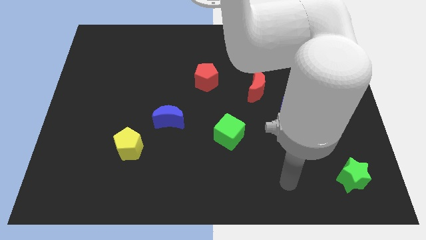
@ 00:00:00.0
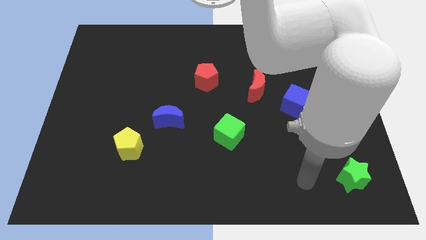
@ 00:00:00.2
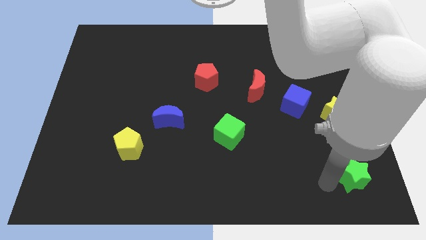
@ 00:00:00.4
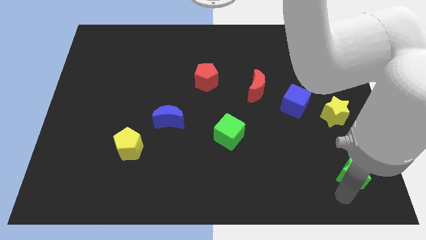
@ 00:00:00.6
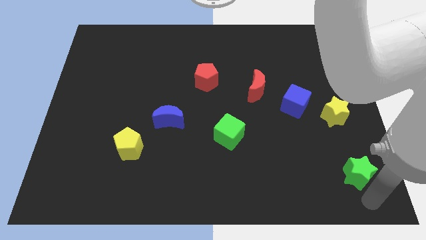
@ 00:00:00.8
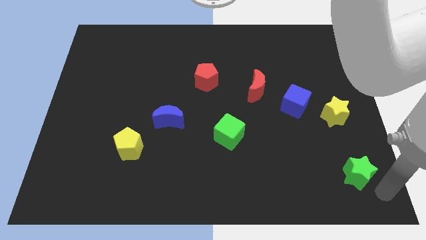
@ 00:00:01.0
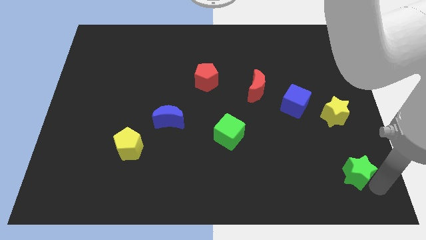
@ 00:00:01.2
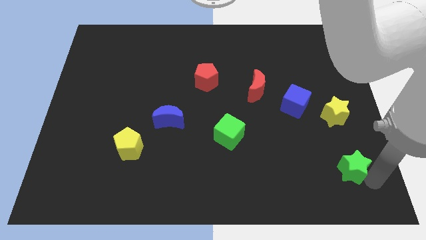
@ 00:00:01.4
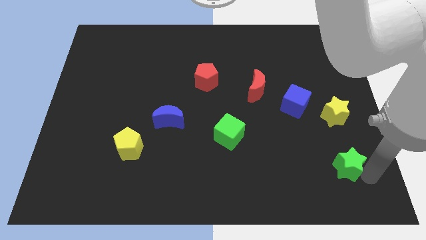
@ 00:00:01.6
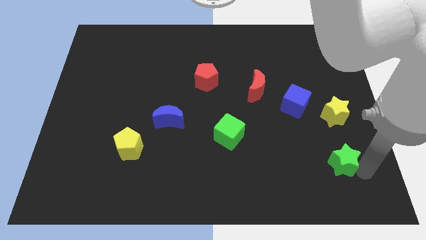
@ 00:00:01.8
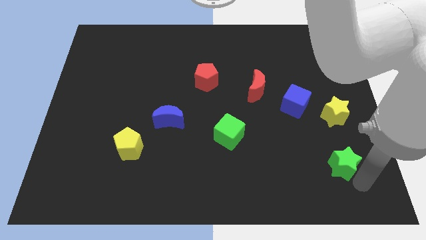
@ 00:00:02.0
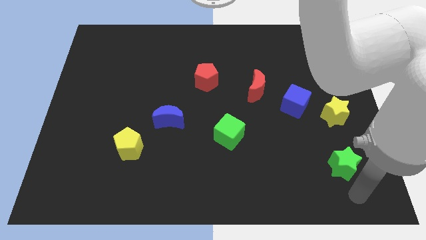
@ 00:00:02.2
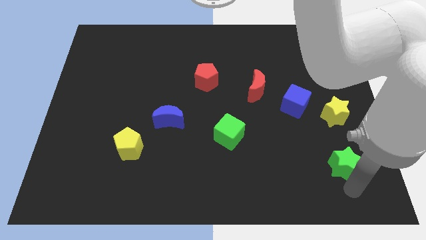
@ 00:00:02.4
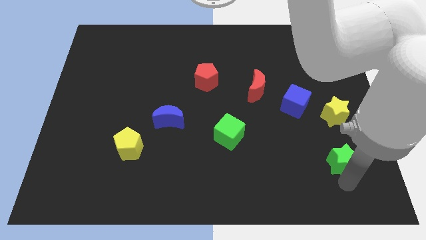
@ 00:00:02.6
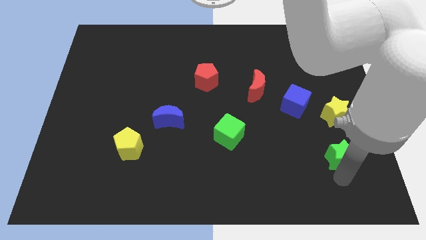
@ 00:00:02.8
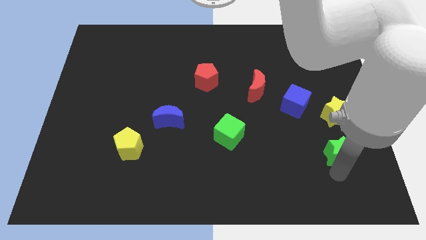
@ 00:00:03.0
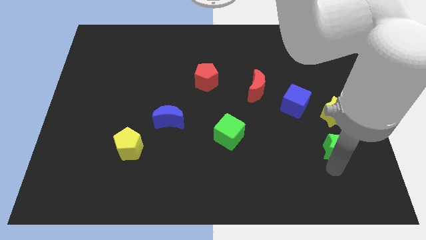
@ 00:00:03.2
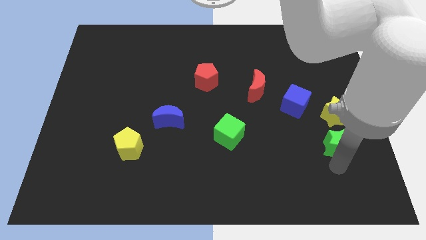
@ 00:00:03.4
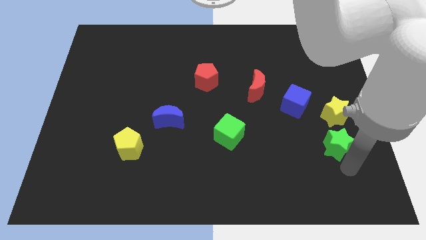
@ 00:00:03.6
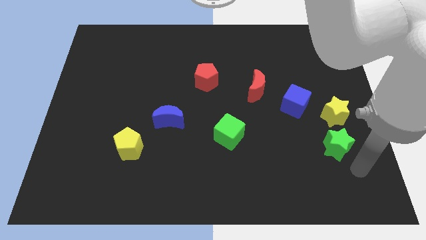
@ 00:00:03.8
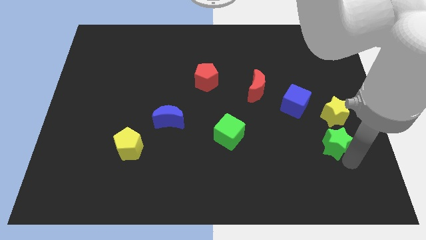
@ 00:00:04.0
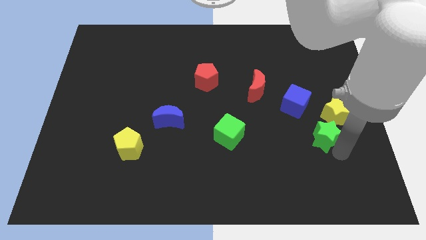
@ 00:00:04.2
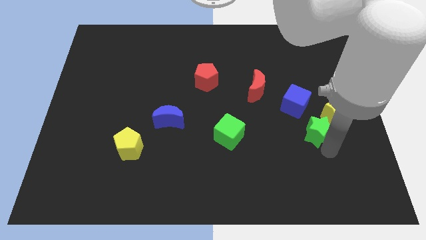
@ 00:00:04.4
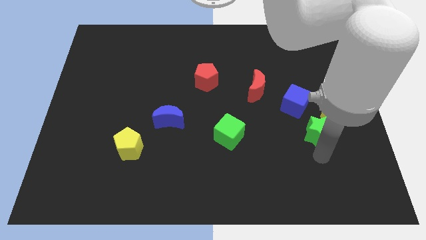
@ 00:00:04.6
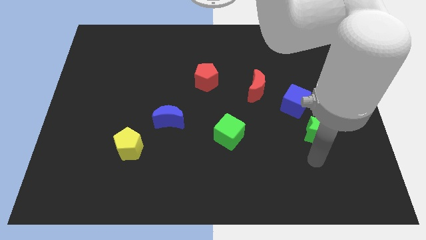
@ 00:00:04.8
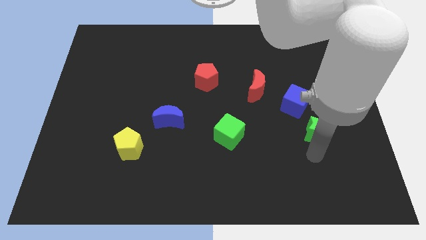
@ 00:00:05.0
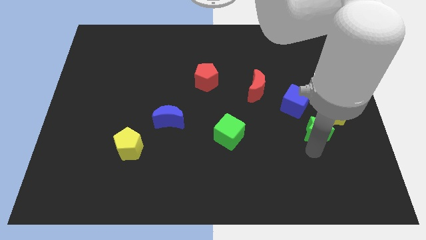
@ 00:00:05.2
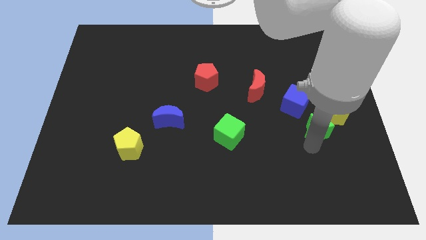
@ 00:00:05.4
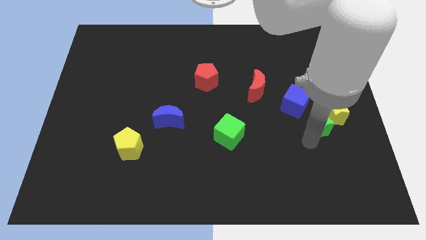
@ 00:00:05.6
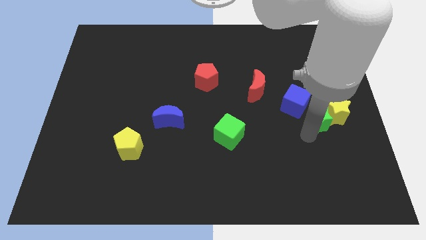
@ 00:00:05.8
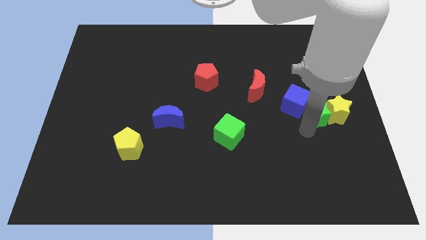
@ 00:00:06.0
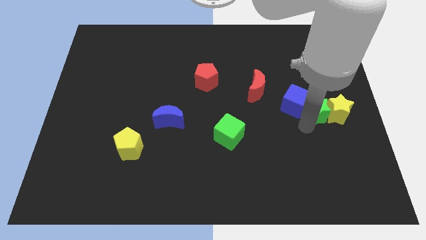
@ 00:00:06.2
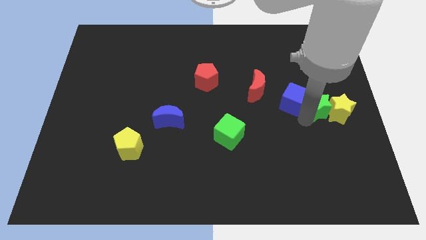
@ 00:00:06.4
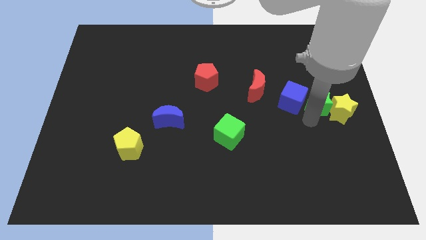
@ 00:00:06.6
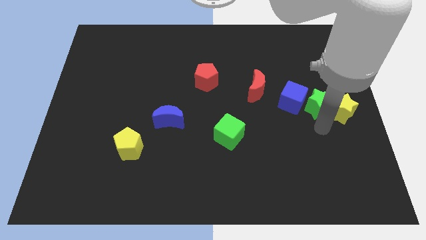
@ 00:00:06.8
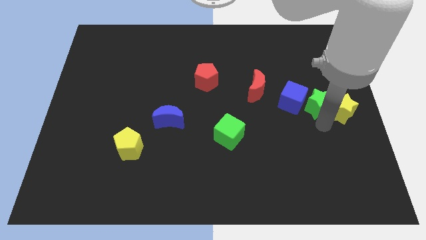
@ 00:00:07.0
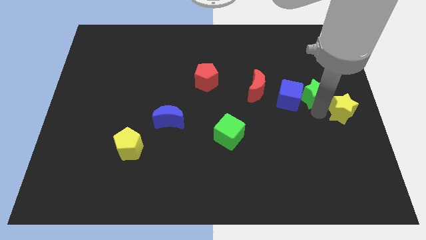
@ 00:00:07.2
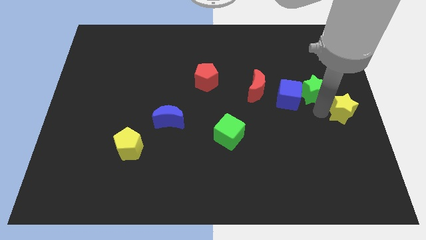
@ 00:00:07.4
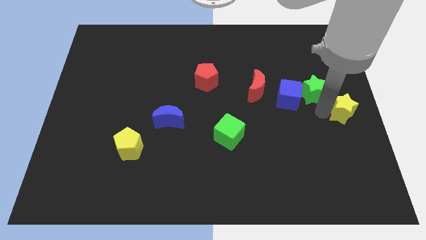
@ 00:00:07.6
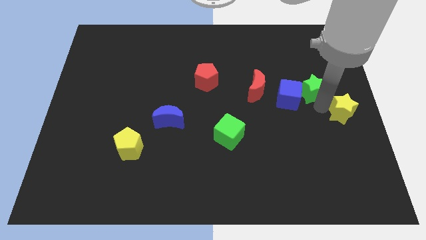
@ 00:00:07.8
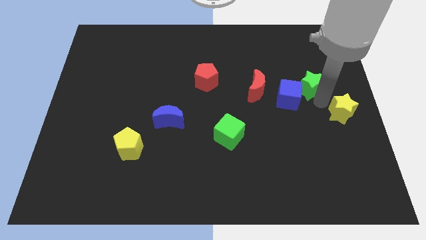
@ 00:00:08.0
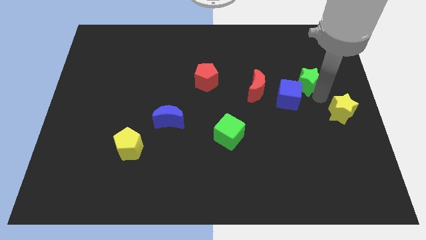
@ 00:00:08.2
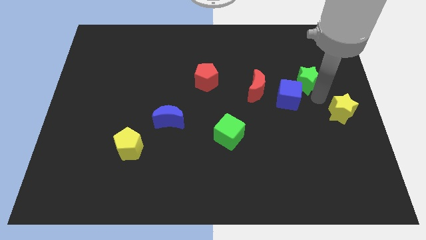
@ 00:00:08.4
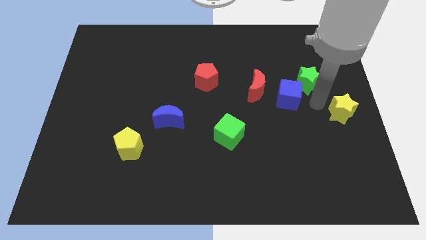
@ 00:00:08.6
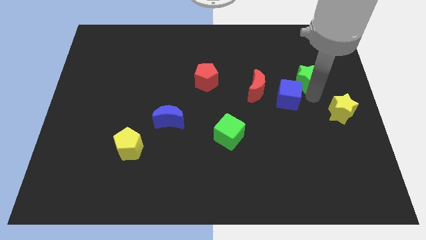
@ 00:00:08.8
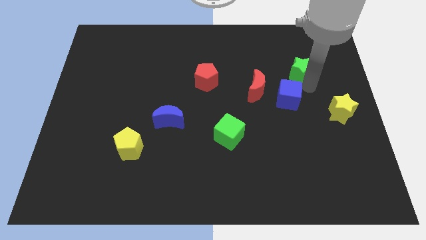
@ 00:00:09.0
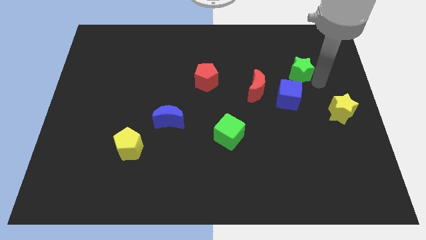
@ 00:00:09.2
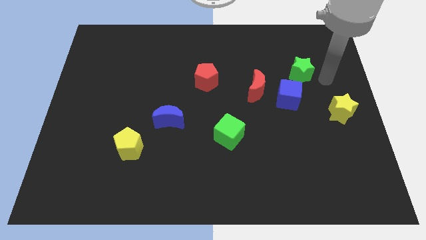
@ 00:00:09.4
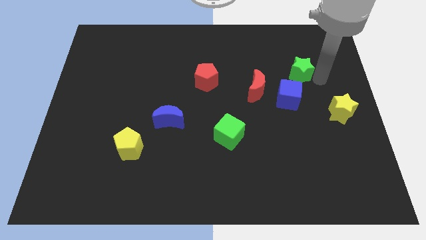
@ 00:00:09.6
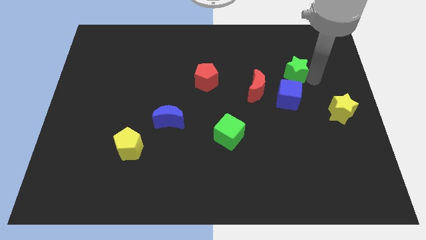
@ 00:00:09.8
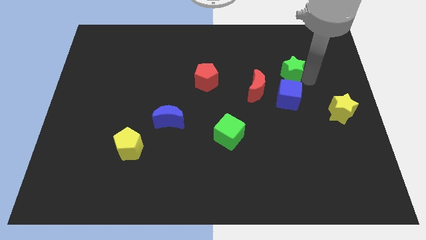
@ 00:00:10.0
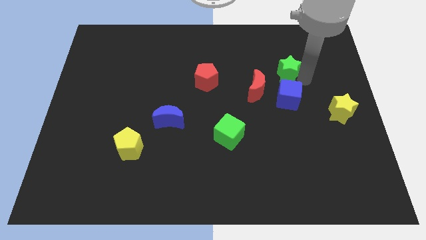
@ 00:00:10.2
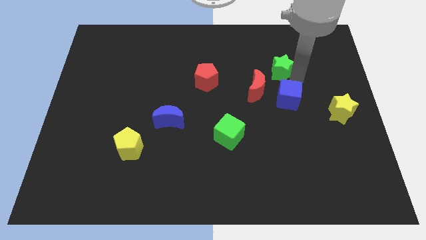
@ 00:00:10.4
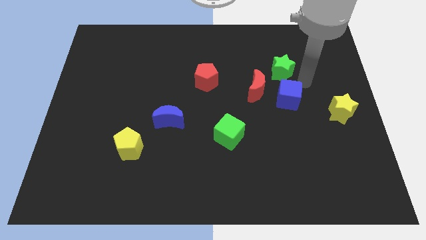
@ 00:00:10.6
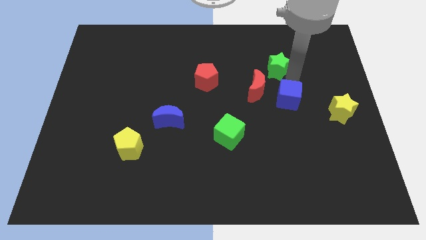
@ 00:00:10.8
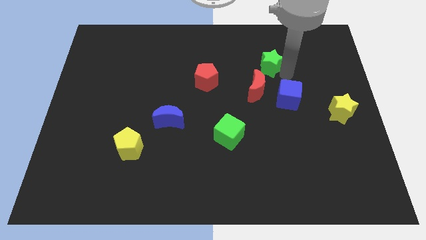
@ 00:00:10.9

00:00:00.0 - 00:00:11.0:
put the green star to the top side of the red moon

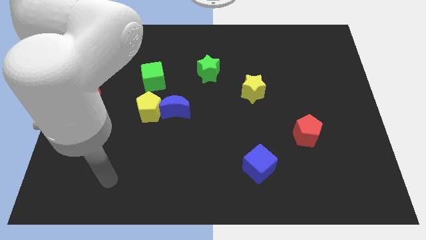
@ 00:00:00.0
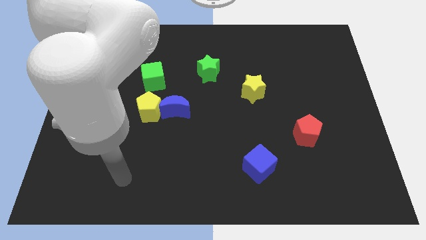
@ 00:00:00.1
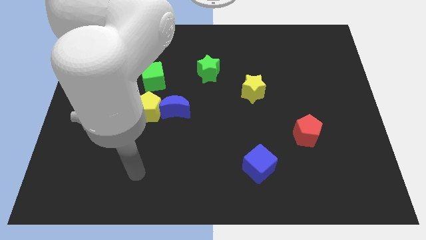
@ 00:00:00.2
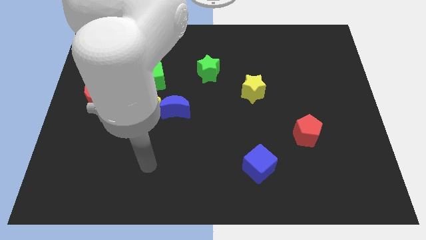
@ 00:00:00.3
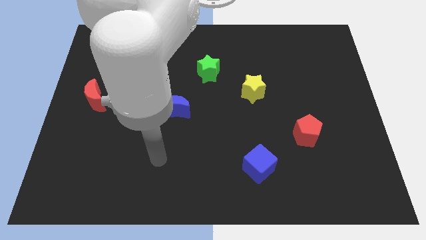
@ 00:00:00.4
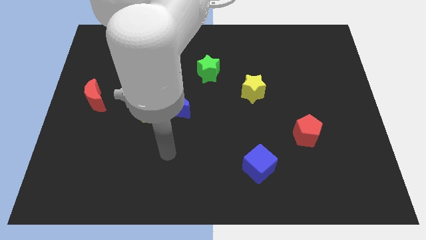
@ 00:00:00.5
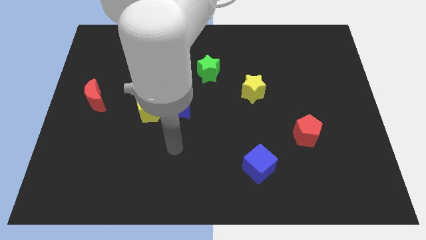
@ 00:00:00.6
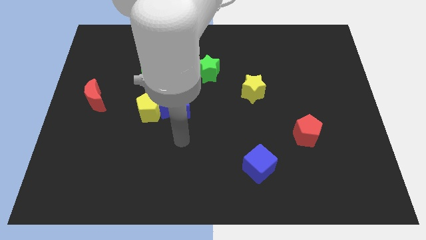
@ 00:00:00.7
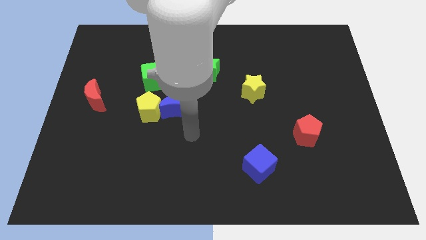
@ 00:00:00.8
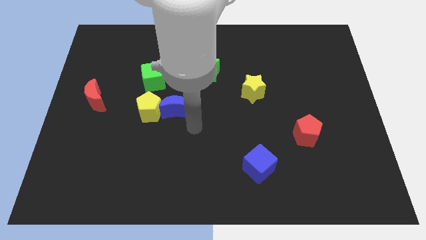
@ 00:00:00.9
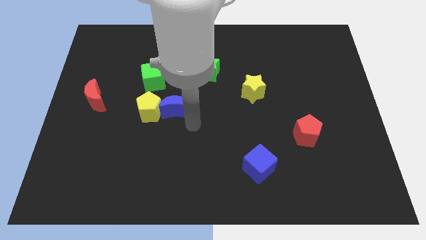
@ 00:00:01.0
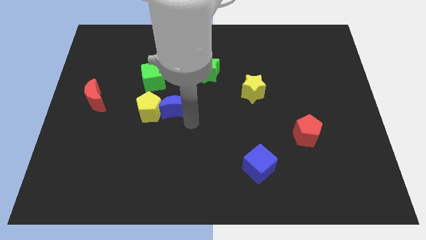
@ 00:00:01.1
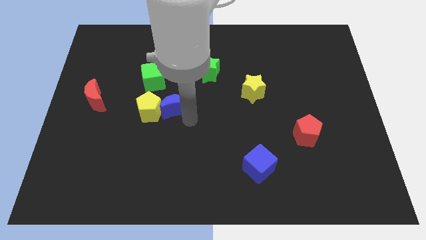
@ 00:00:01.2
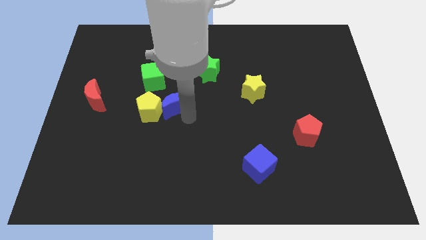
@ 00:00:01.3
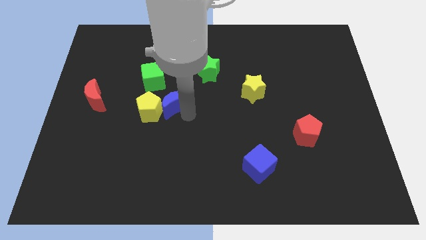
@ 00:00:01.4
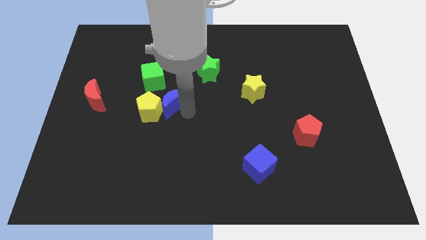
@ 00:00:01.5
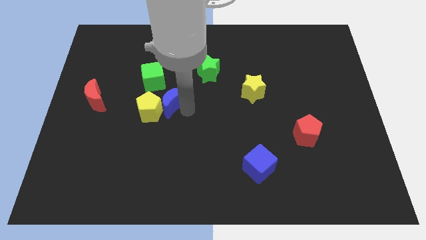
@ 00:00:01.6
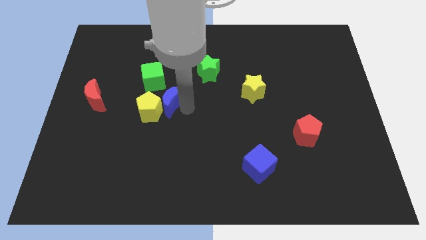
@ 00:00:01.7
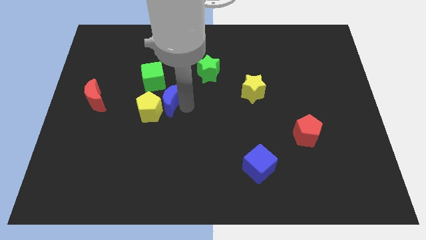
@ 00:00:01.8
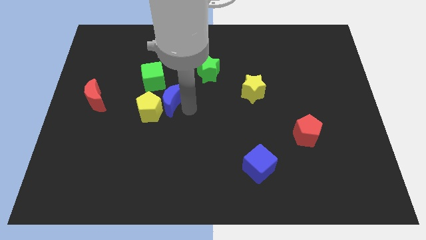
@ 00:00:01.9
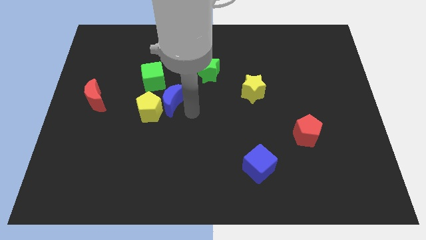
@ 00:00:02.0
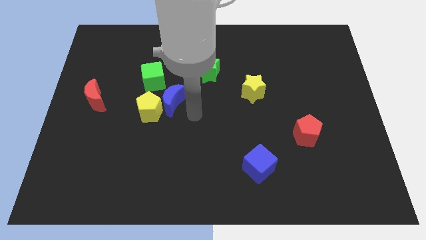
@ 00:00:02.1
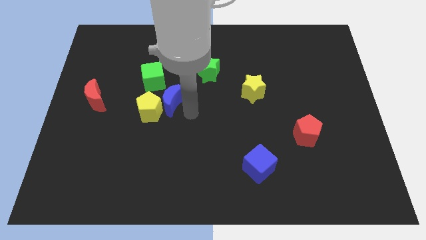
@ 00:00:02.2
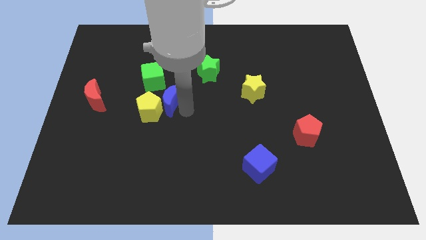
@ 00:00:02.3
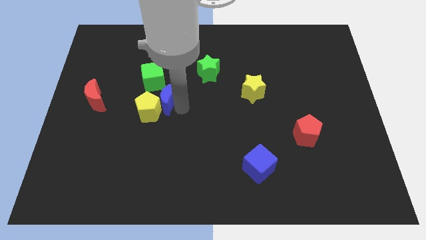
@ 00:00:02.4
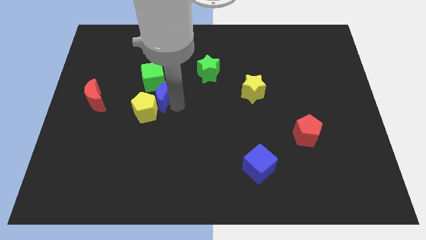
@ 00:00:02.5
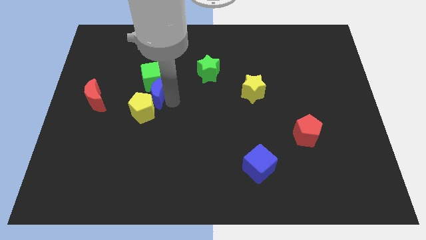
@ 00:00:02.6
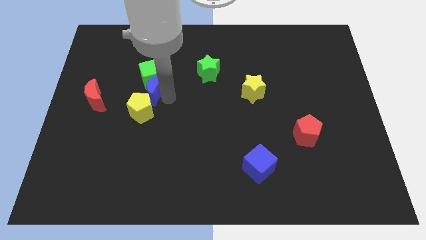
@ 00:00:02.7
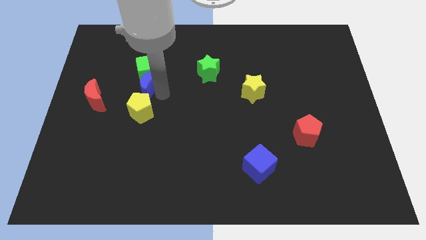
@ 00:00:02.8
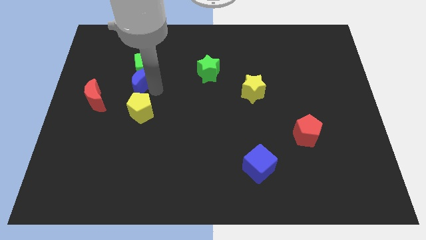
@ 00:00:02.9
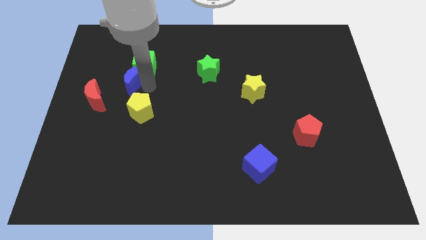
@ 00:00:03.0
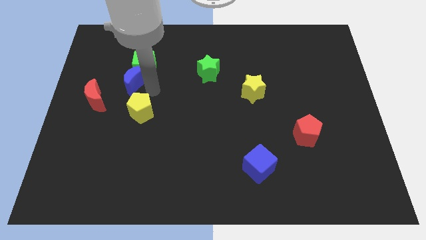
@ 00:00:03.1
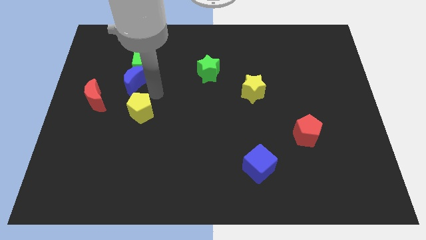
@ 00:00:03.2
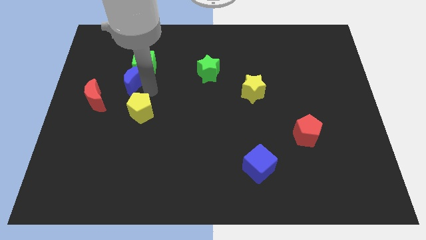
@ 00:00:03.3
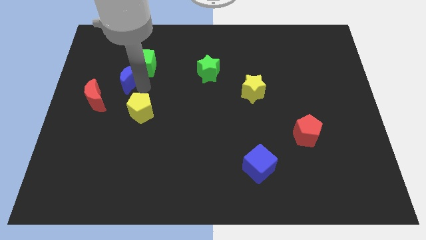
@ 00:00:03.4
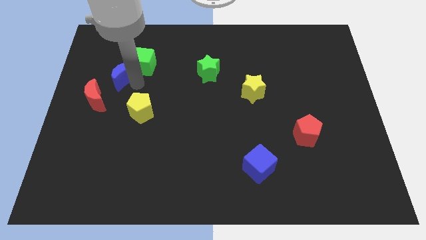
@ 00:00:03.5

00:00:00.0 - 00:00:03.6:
move the blue moon left of the green cube
